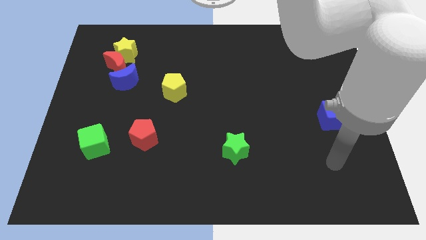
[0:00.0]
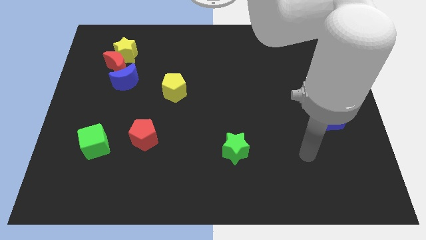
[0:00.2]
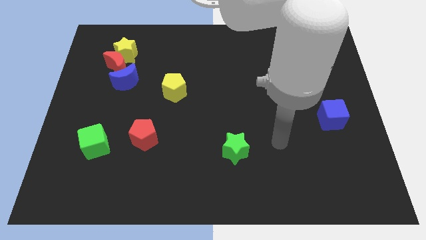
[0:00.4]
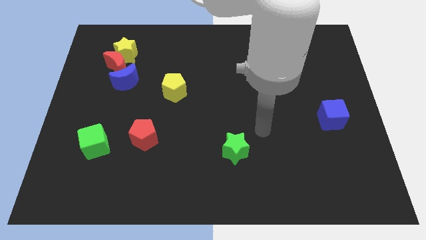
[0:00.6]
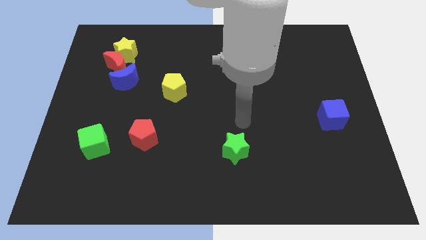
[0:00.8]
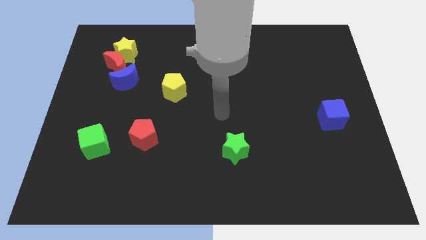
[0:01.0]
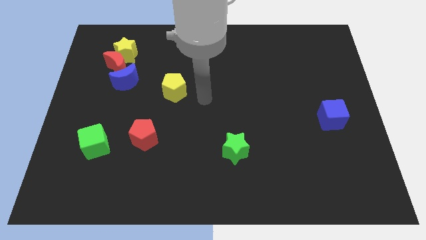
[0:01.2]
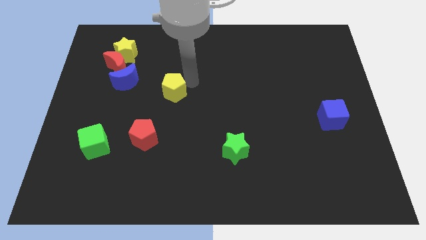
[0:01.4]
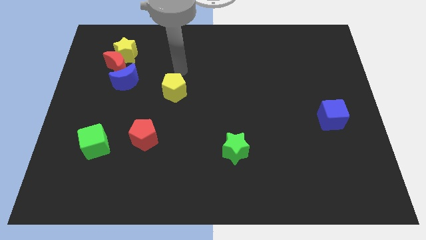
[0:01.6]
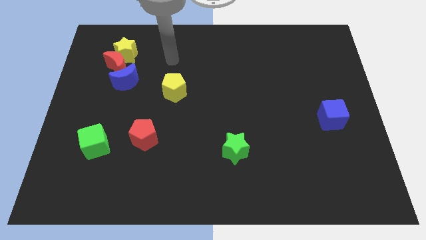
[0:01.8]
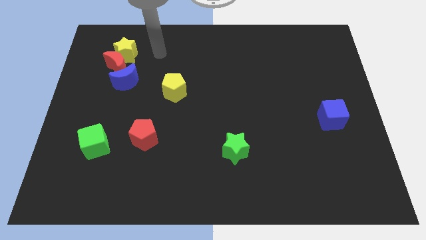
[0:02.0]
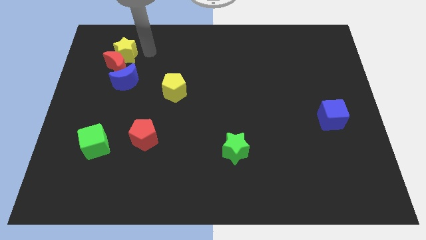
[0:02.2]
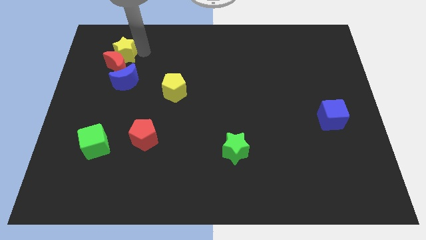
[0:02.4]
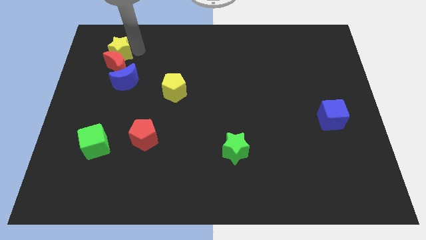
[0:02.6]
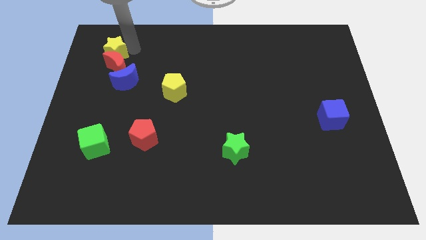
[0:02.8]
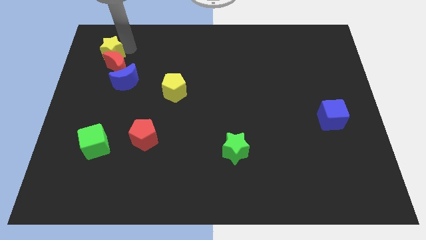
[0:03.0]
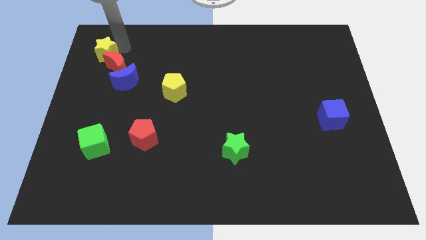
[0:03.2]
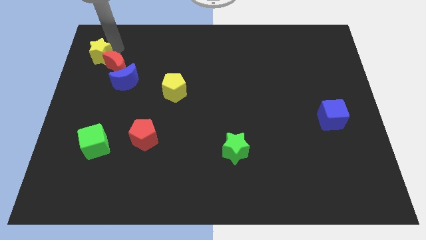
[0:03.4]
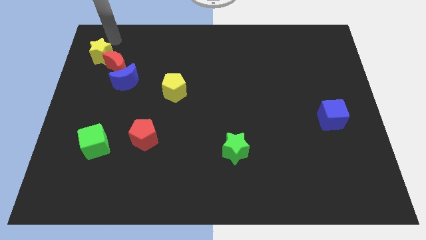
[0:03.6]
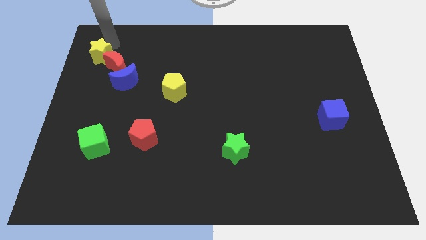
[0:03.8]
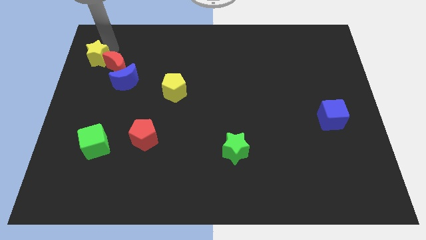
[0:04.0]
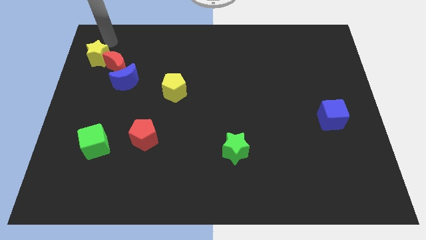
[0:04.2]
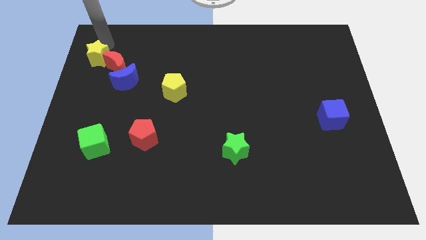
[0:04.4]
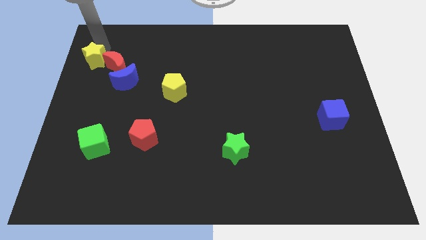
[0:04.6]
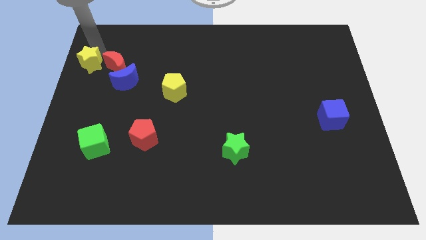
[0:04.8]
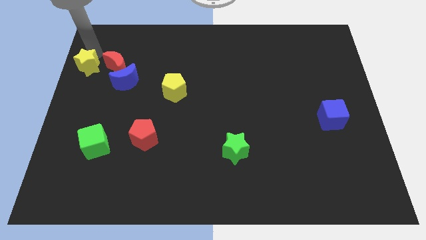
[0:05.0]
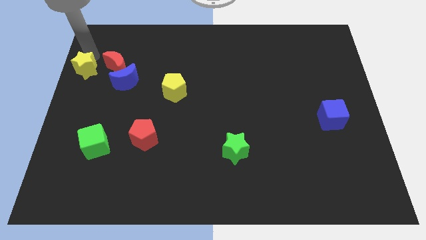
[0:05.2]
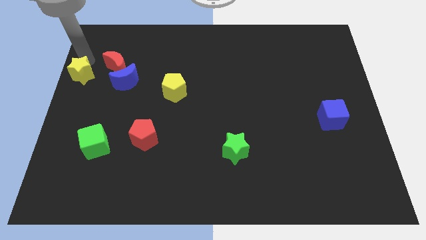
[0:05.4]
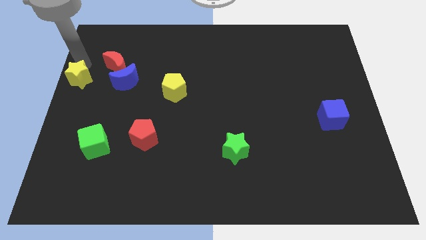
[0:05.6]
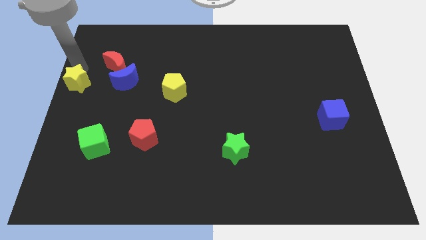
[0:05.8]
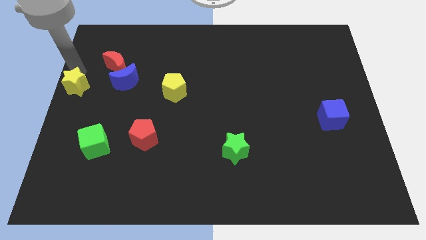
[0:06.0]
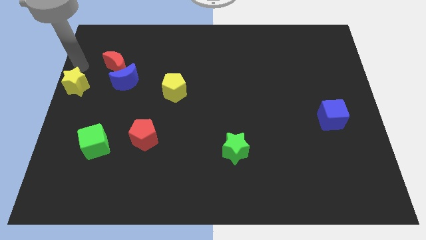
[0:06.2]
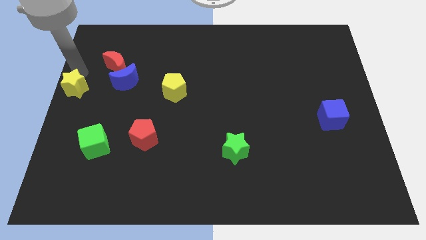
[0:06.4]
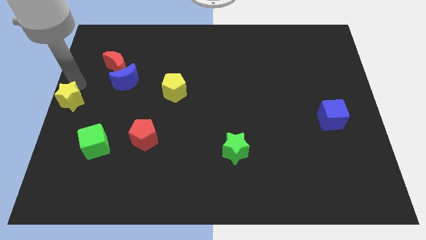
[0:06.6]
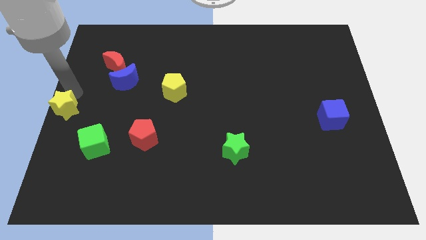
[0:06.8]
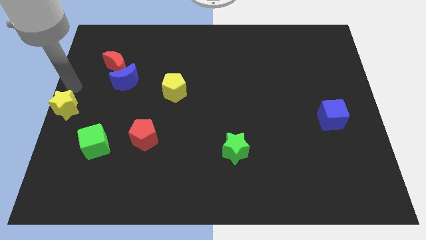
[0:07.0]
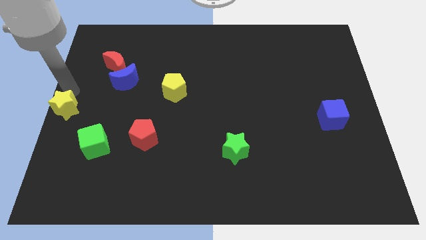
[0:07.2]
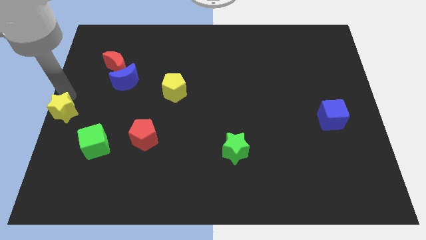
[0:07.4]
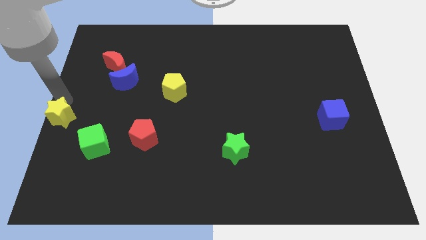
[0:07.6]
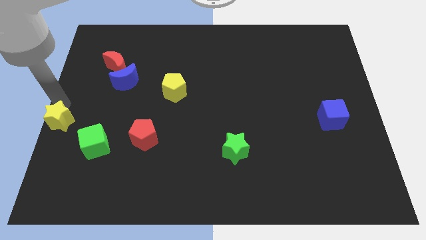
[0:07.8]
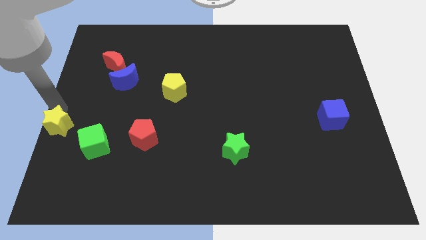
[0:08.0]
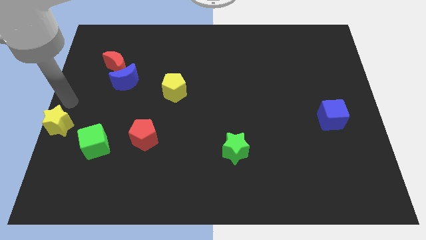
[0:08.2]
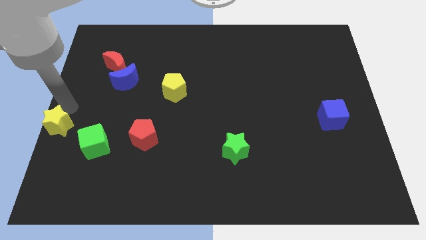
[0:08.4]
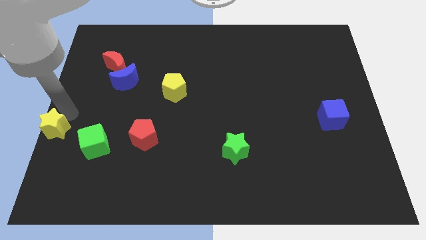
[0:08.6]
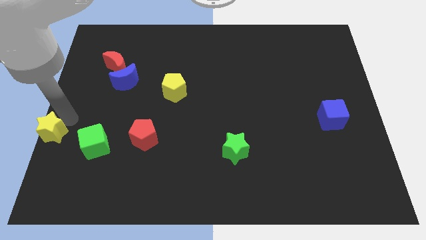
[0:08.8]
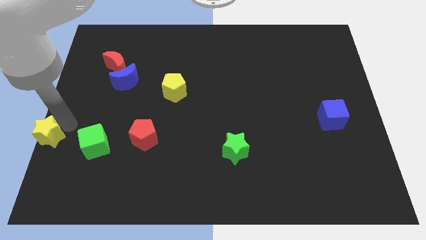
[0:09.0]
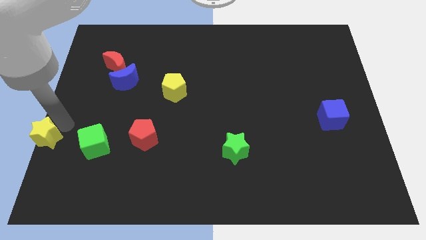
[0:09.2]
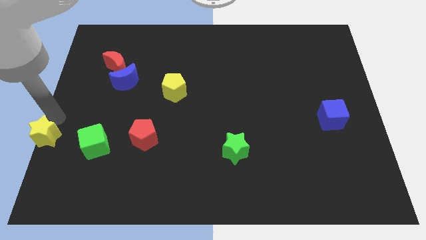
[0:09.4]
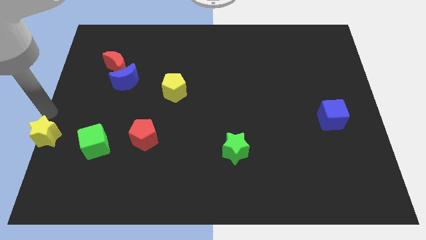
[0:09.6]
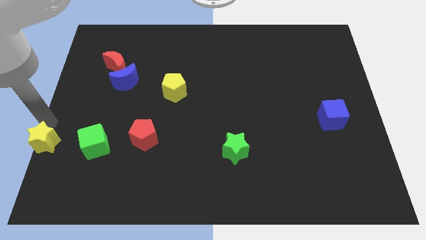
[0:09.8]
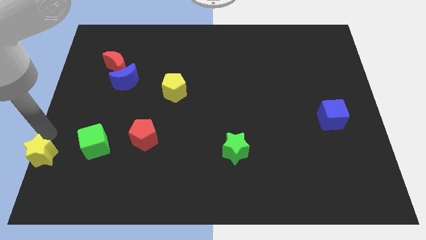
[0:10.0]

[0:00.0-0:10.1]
push the yellow star to the lower left corner

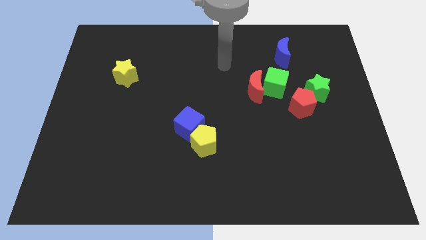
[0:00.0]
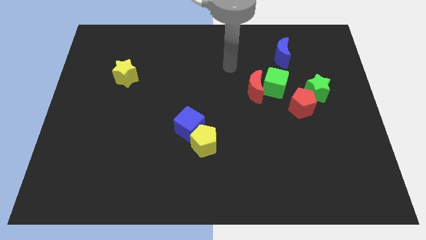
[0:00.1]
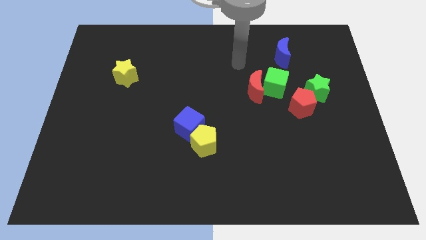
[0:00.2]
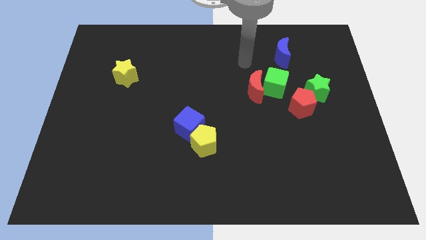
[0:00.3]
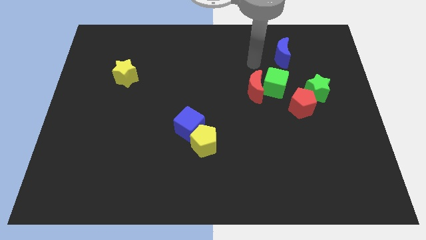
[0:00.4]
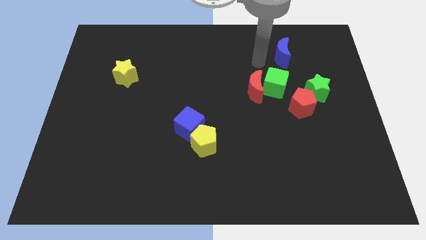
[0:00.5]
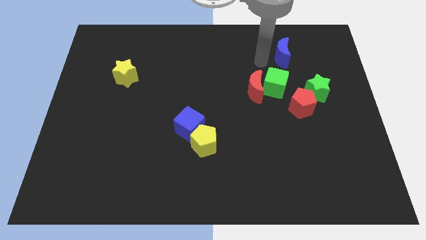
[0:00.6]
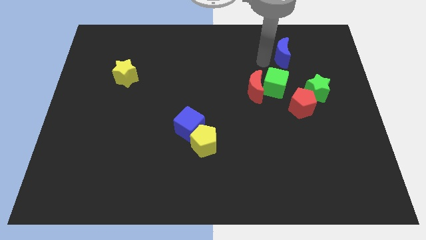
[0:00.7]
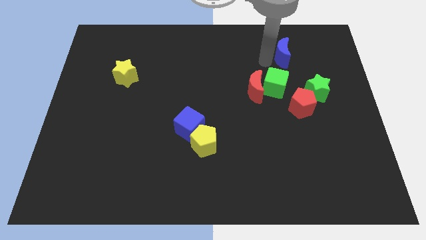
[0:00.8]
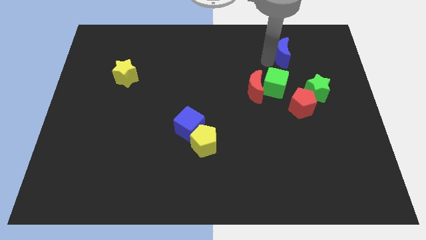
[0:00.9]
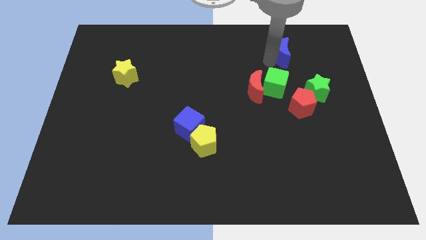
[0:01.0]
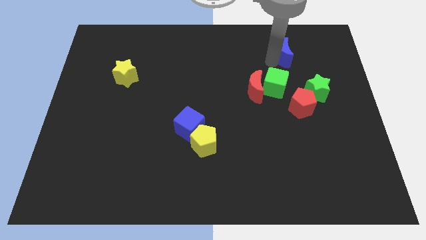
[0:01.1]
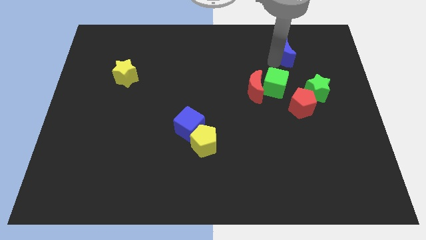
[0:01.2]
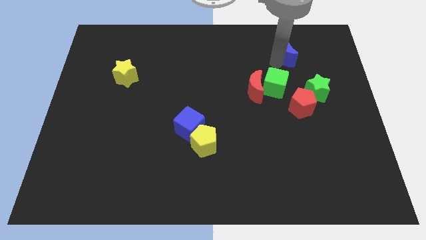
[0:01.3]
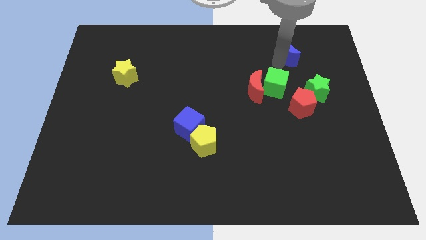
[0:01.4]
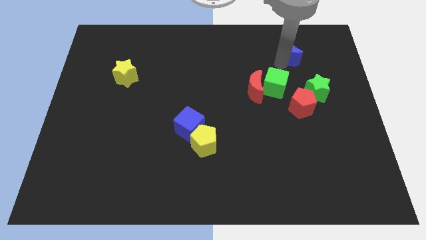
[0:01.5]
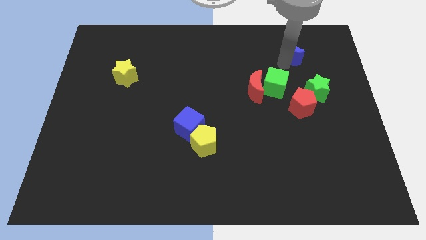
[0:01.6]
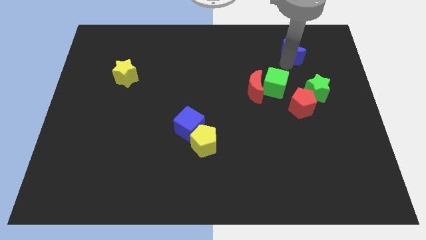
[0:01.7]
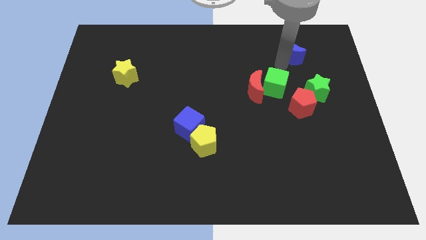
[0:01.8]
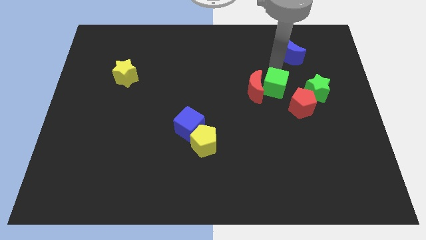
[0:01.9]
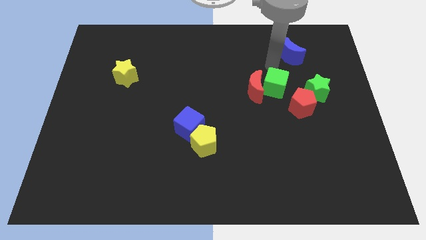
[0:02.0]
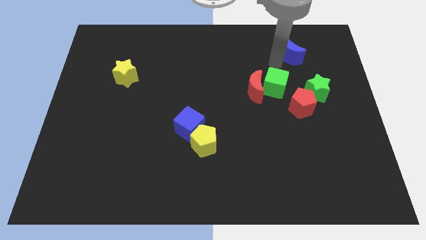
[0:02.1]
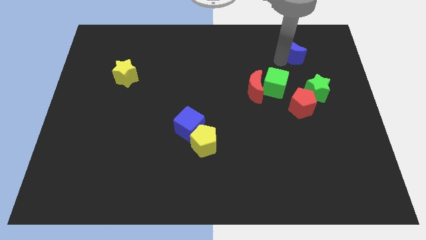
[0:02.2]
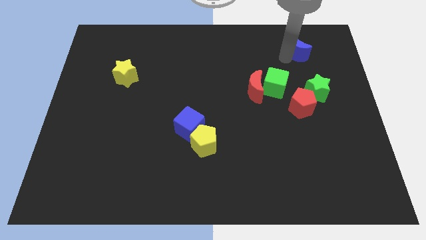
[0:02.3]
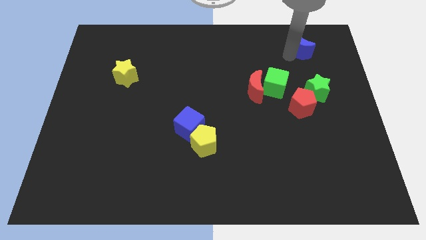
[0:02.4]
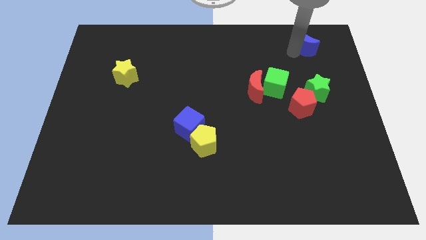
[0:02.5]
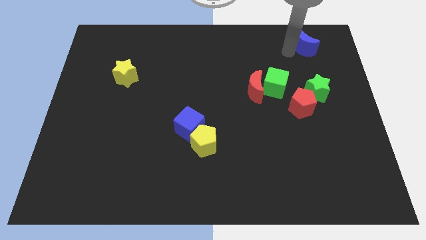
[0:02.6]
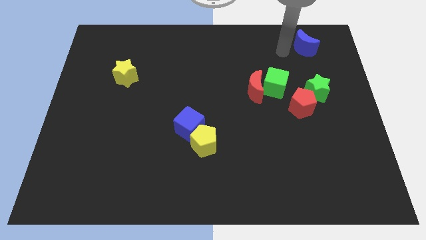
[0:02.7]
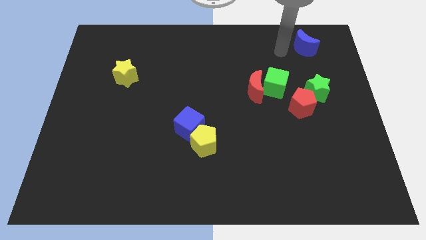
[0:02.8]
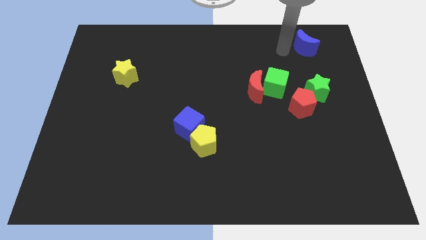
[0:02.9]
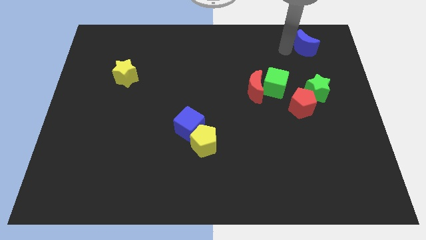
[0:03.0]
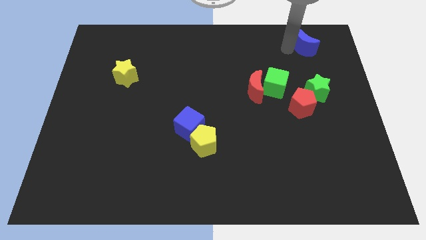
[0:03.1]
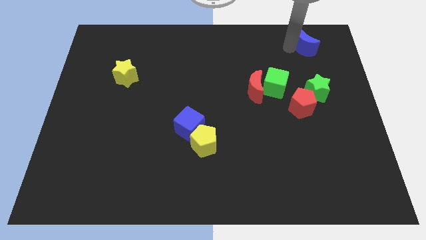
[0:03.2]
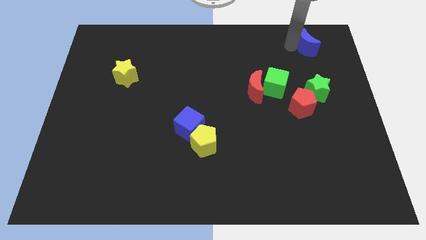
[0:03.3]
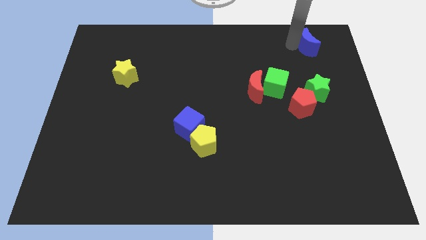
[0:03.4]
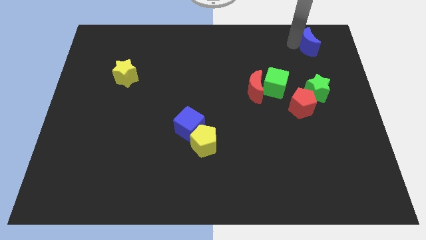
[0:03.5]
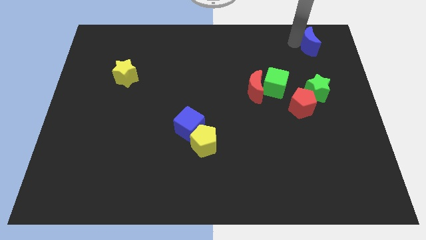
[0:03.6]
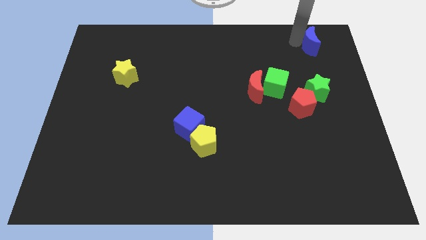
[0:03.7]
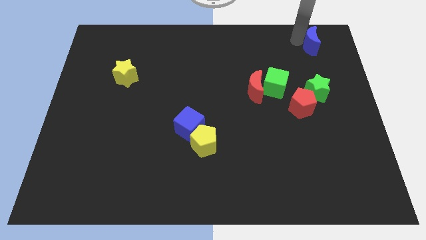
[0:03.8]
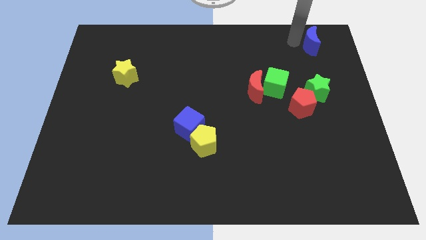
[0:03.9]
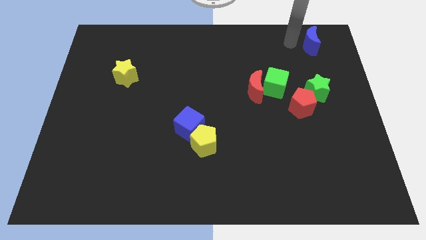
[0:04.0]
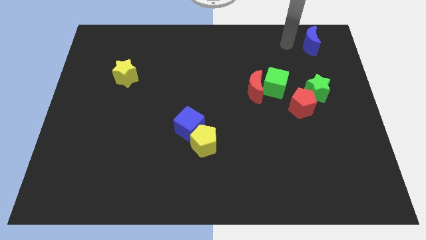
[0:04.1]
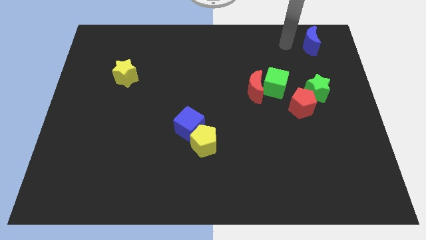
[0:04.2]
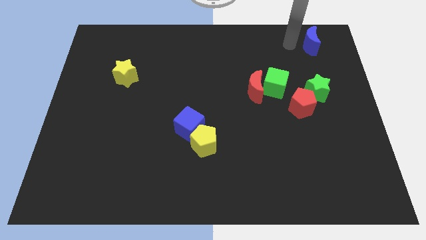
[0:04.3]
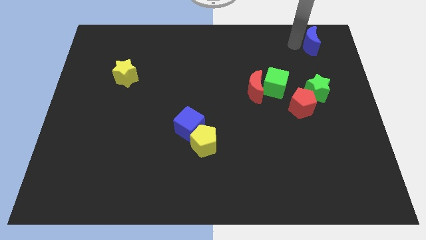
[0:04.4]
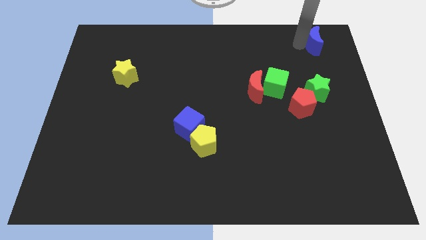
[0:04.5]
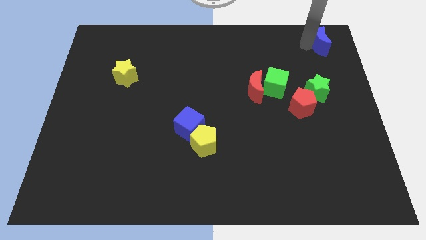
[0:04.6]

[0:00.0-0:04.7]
slide the blue moon to the top right of the board
